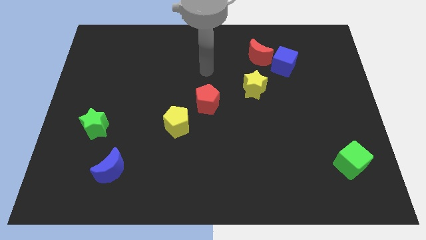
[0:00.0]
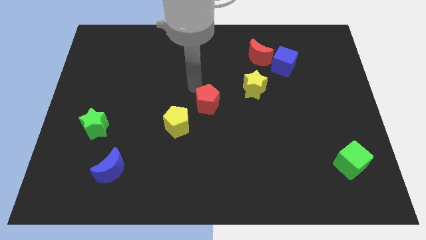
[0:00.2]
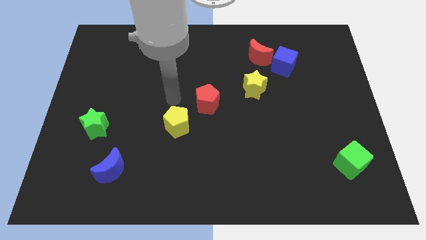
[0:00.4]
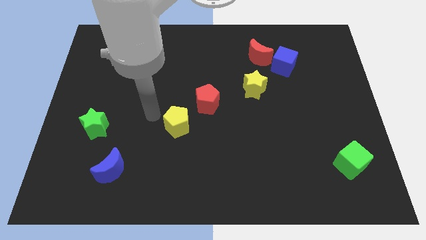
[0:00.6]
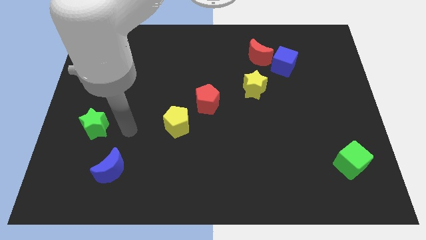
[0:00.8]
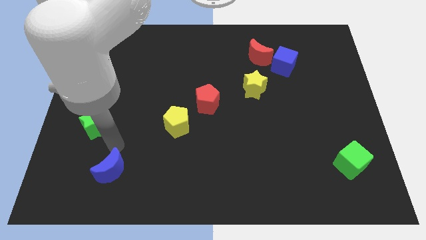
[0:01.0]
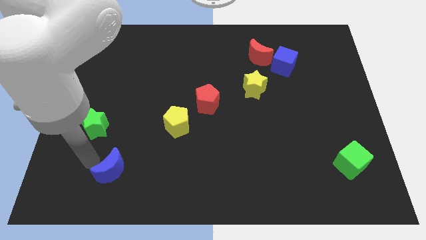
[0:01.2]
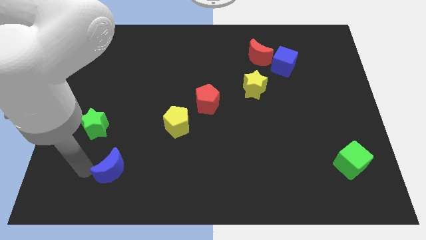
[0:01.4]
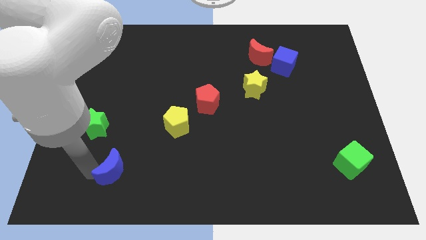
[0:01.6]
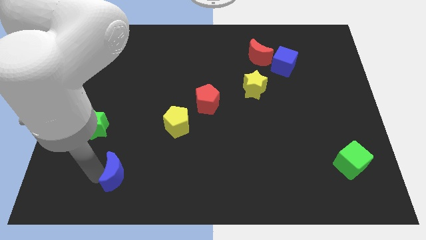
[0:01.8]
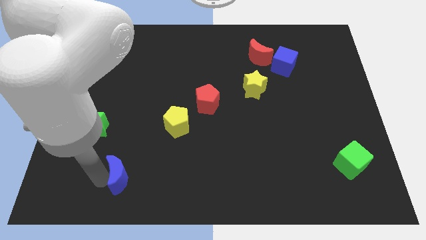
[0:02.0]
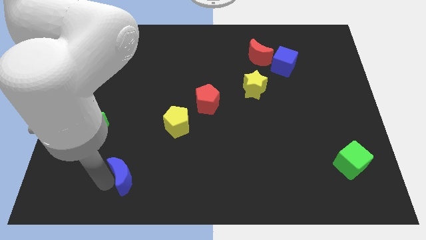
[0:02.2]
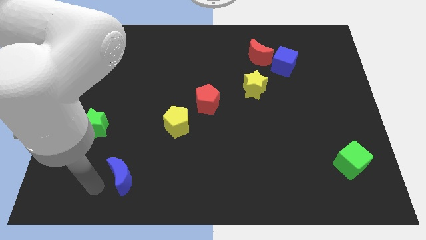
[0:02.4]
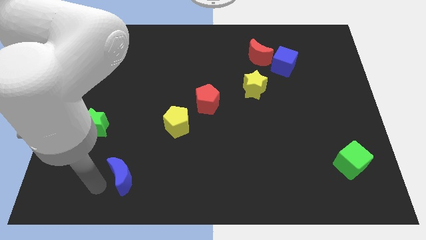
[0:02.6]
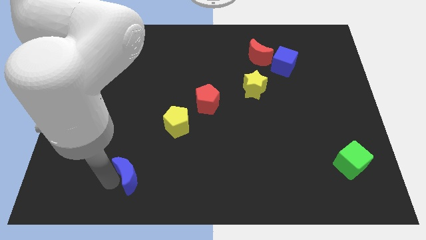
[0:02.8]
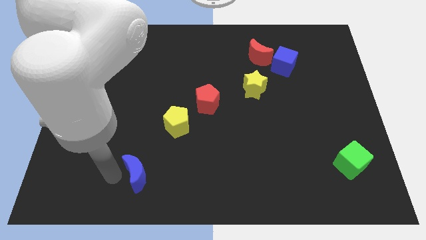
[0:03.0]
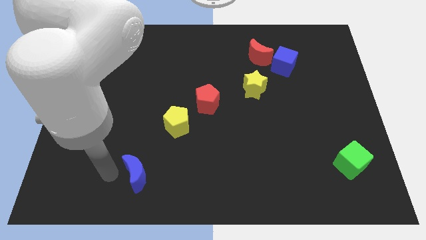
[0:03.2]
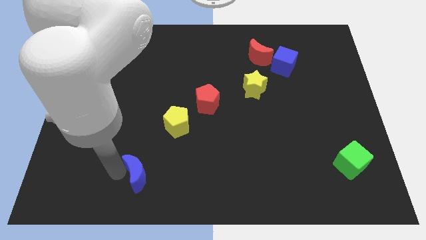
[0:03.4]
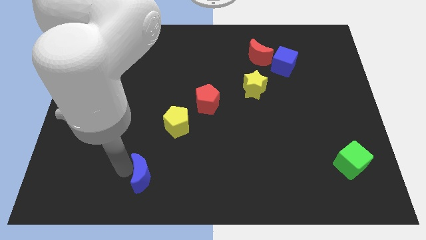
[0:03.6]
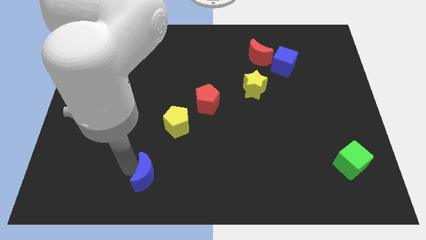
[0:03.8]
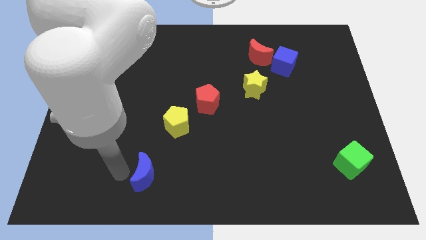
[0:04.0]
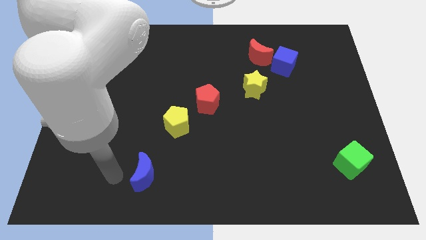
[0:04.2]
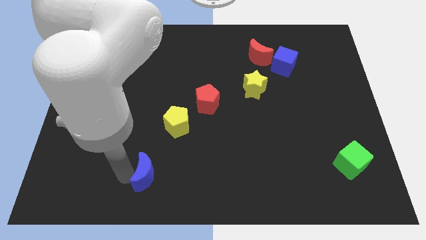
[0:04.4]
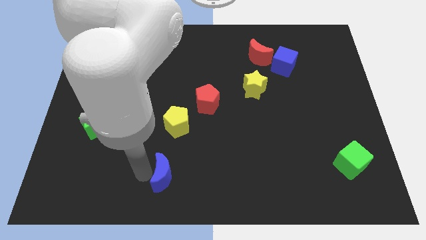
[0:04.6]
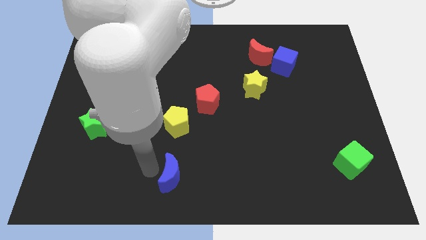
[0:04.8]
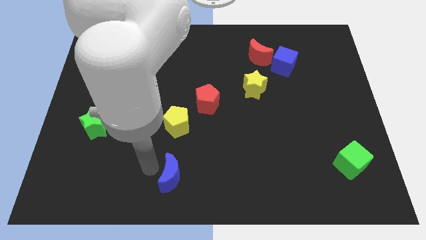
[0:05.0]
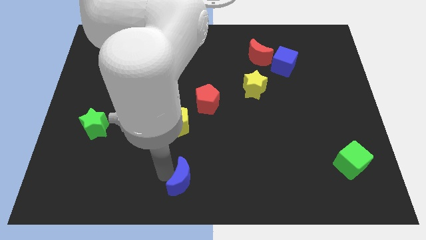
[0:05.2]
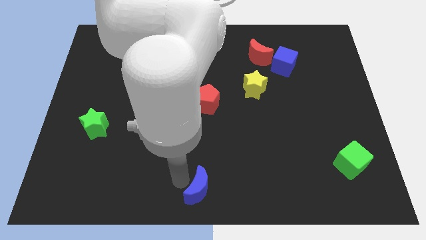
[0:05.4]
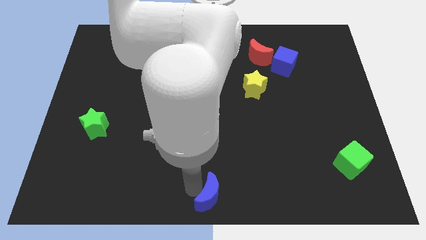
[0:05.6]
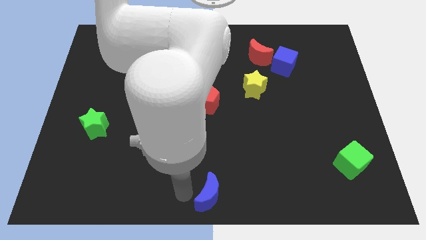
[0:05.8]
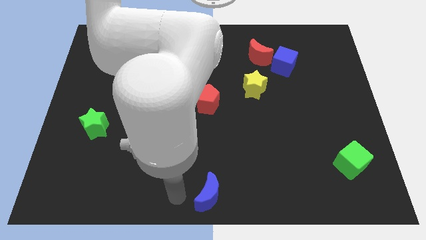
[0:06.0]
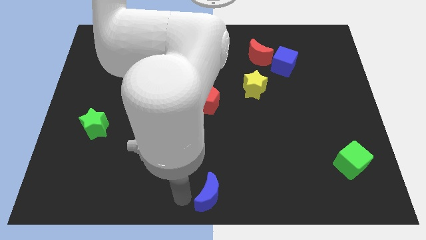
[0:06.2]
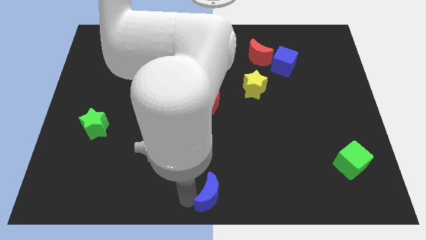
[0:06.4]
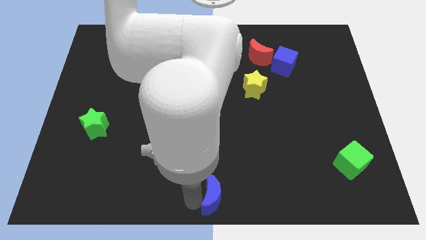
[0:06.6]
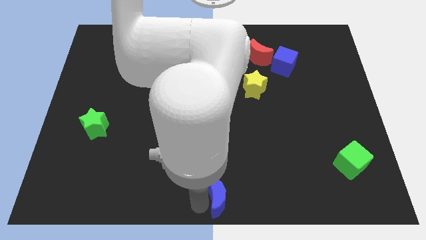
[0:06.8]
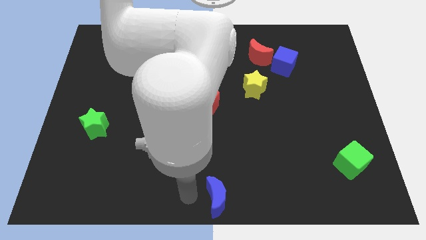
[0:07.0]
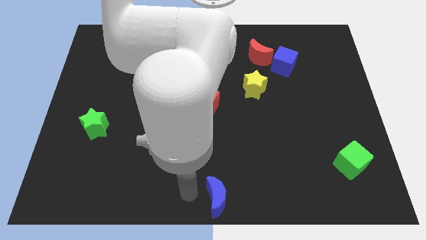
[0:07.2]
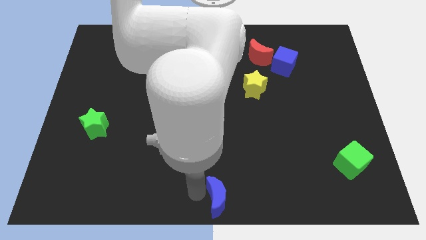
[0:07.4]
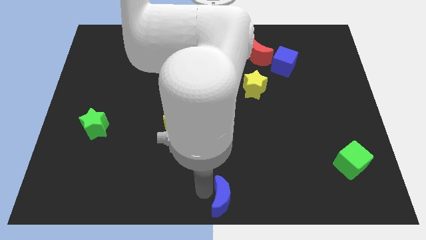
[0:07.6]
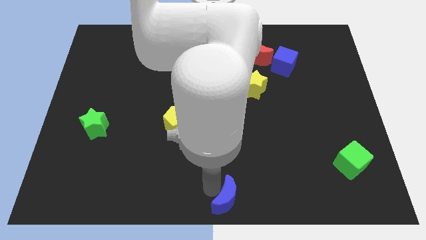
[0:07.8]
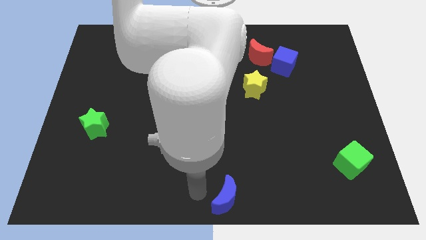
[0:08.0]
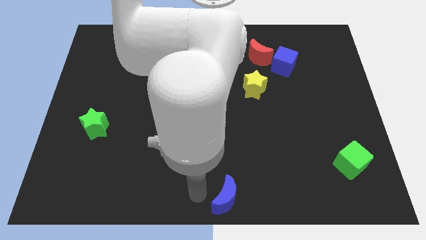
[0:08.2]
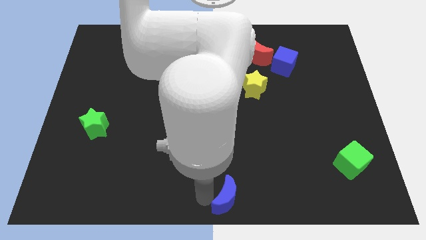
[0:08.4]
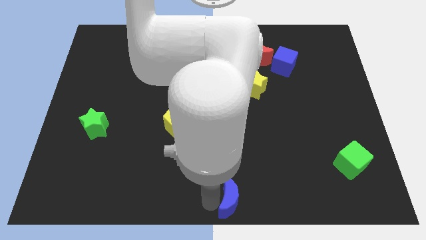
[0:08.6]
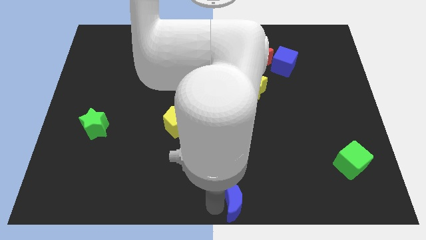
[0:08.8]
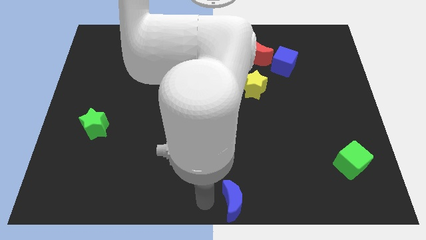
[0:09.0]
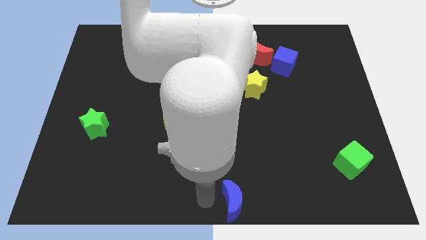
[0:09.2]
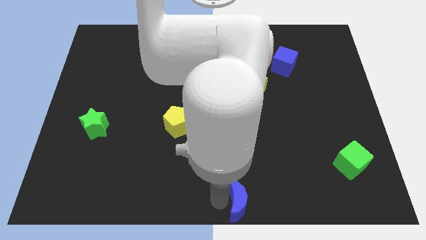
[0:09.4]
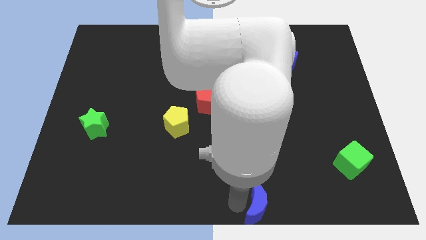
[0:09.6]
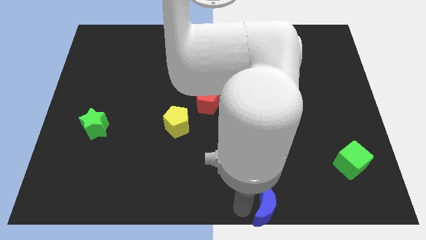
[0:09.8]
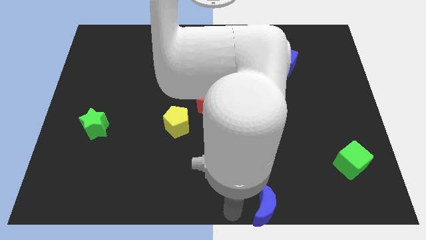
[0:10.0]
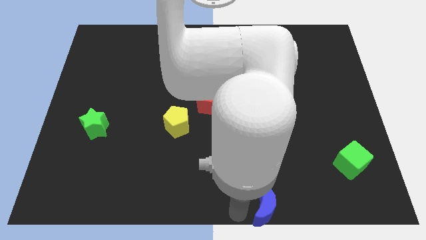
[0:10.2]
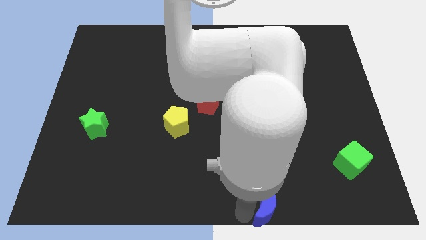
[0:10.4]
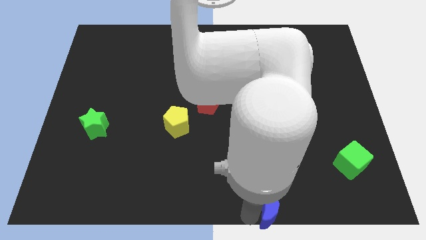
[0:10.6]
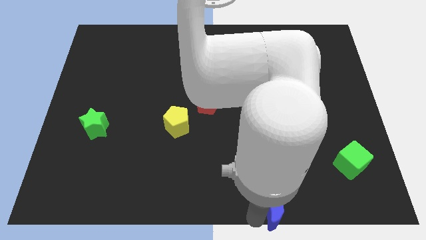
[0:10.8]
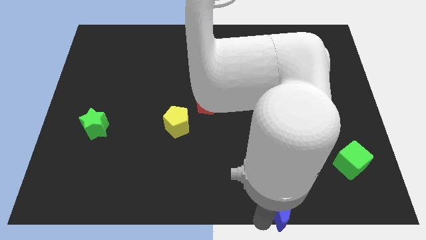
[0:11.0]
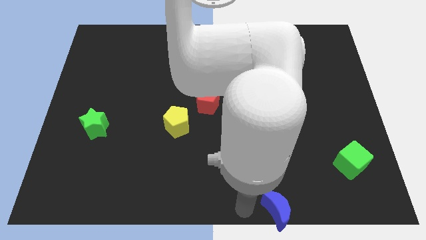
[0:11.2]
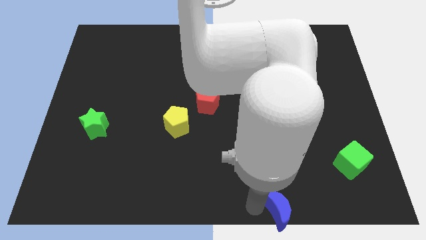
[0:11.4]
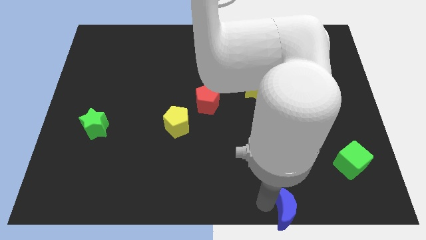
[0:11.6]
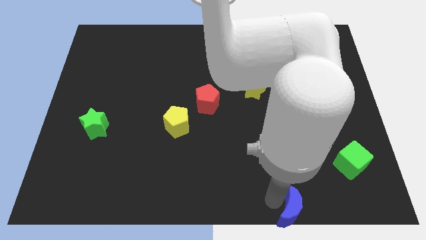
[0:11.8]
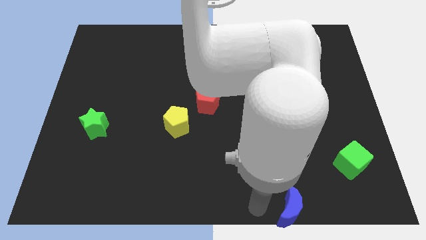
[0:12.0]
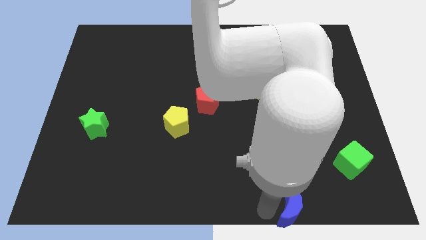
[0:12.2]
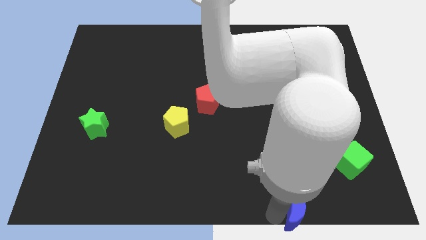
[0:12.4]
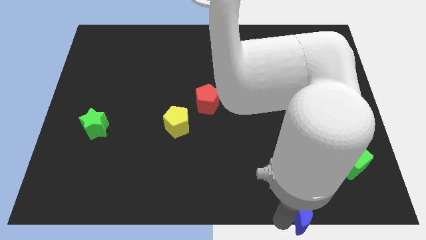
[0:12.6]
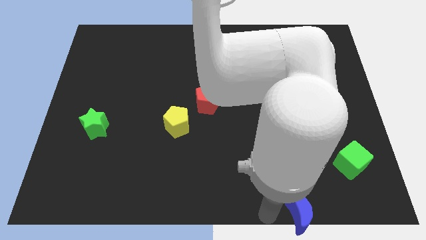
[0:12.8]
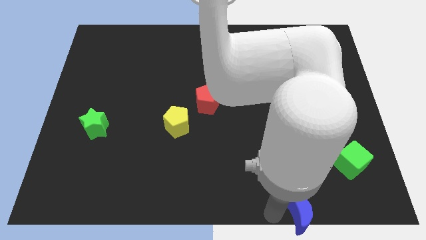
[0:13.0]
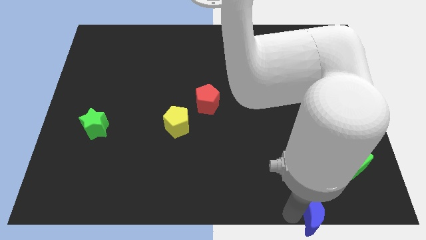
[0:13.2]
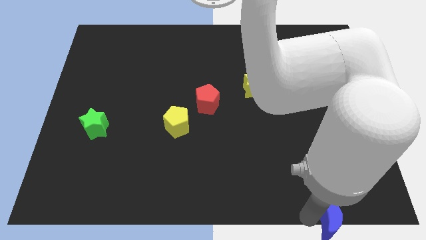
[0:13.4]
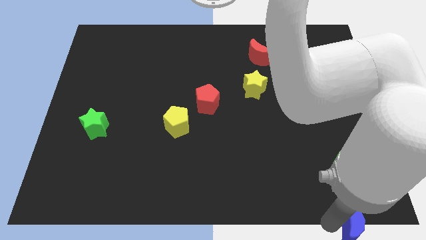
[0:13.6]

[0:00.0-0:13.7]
move the blue moon to the bottom right
